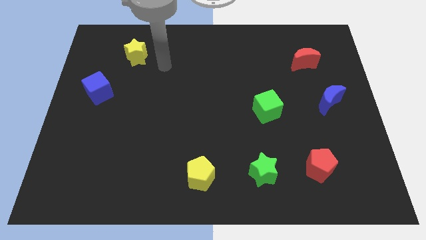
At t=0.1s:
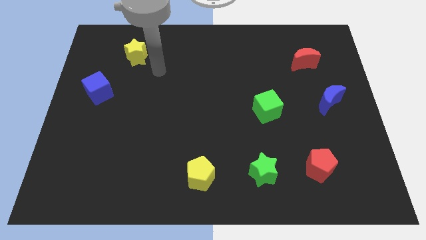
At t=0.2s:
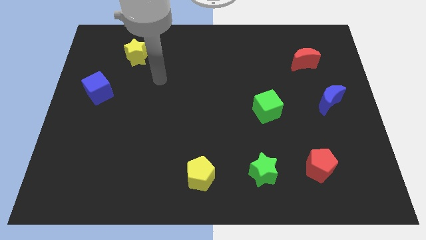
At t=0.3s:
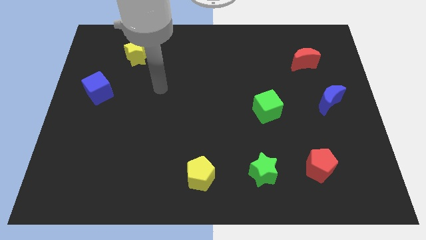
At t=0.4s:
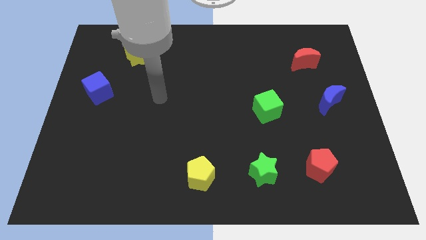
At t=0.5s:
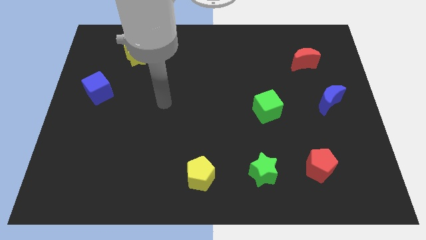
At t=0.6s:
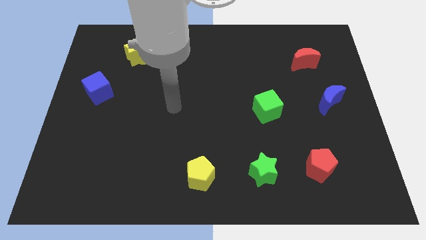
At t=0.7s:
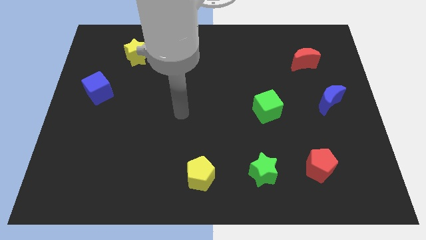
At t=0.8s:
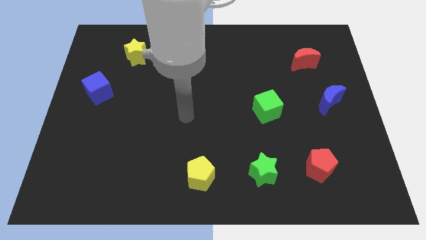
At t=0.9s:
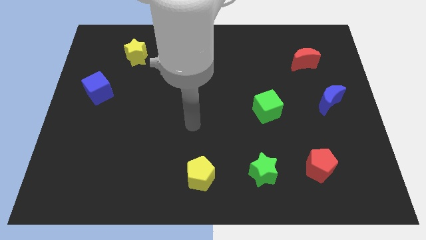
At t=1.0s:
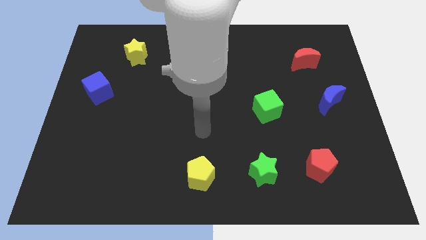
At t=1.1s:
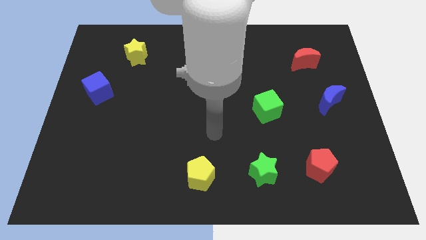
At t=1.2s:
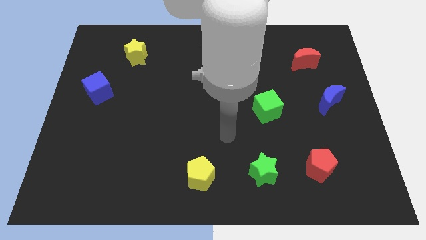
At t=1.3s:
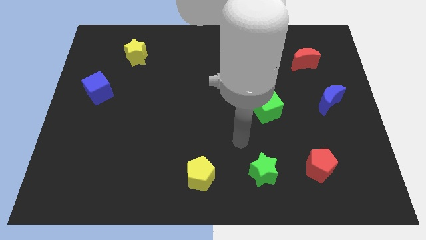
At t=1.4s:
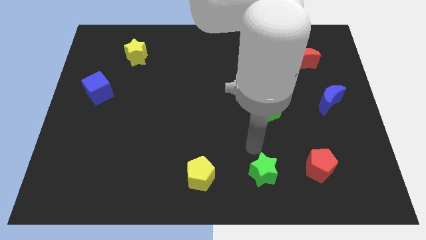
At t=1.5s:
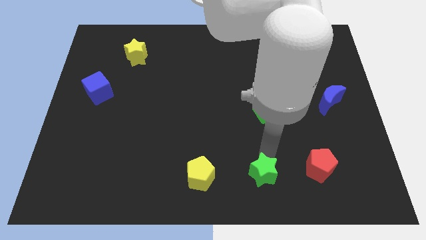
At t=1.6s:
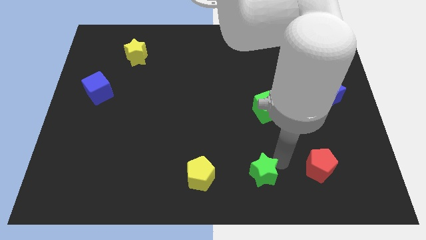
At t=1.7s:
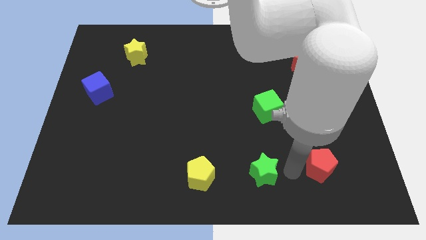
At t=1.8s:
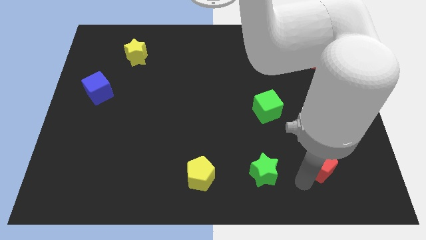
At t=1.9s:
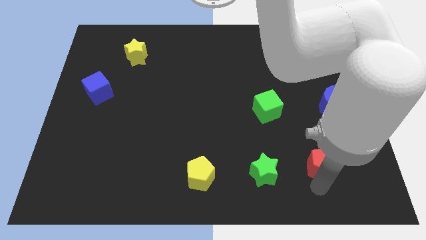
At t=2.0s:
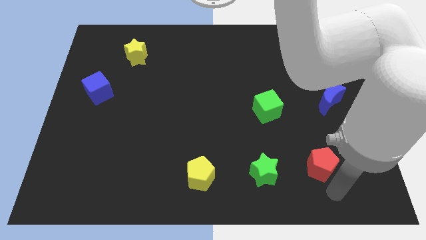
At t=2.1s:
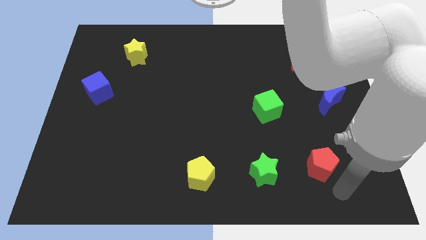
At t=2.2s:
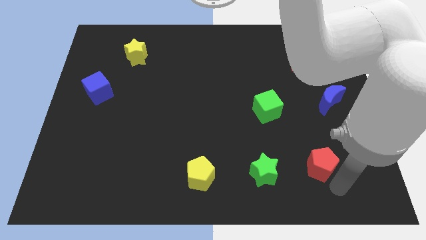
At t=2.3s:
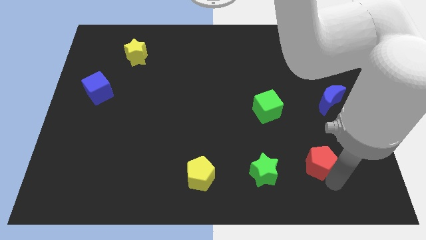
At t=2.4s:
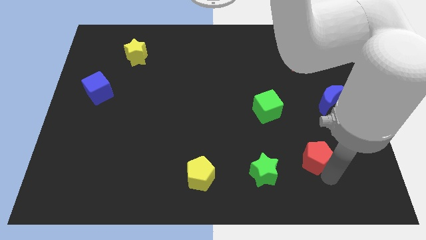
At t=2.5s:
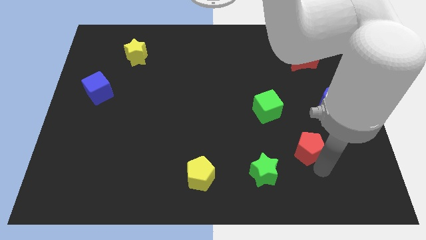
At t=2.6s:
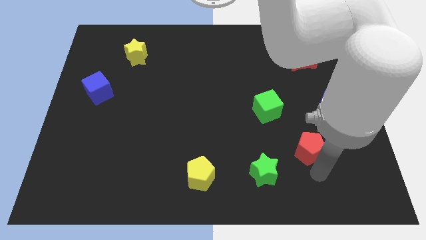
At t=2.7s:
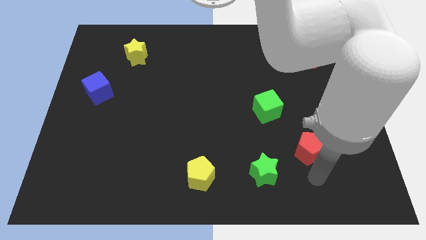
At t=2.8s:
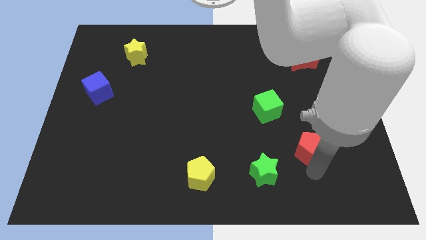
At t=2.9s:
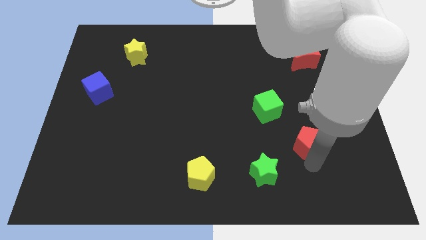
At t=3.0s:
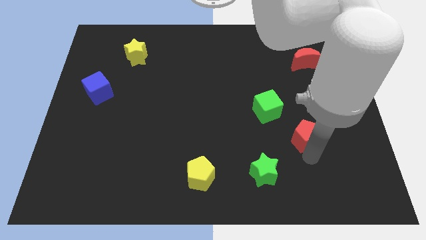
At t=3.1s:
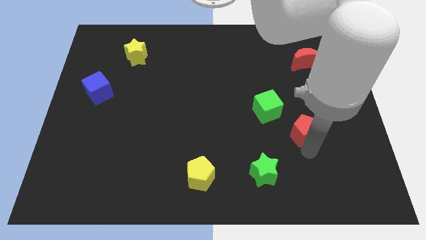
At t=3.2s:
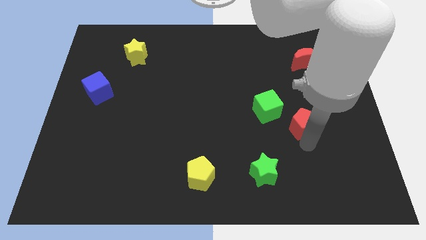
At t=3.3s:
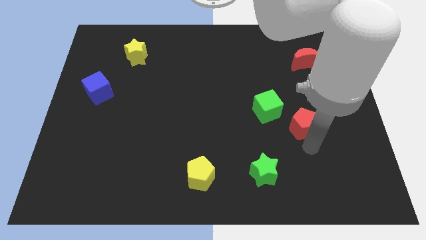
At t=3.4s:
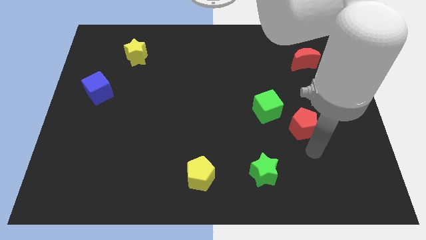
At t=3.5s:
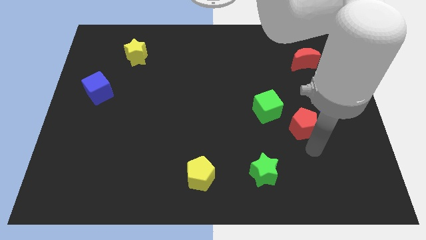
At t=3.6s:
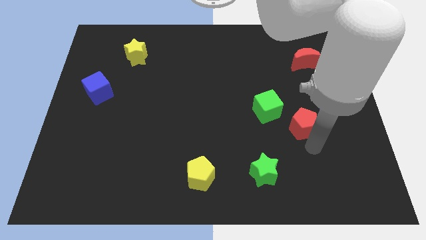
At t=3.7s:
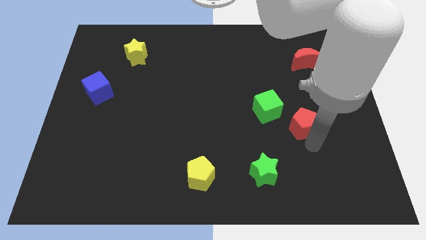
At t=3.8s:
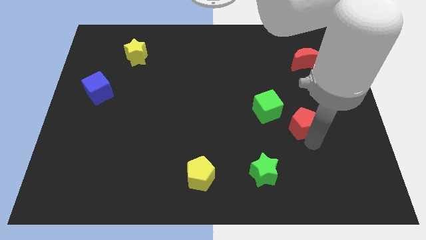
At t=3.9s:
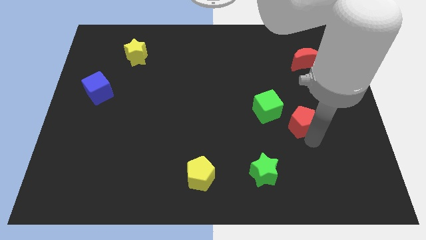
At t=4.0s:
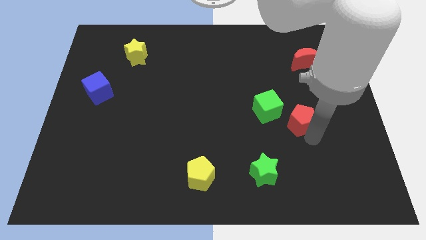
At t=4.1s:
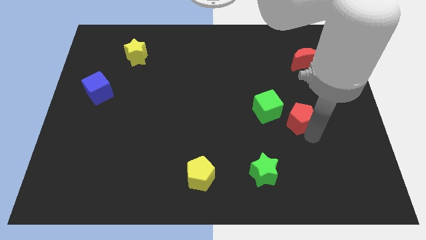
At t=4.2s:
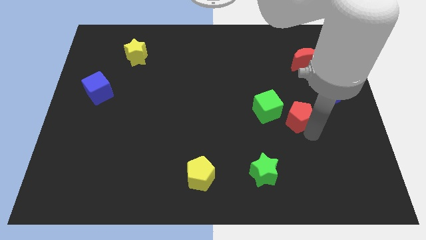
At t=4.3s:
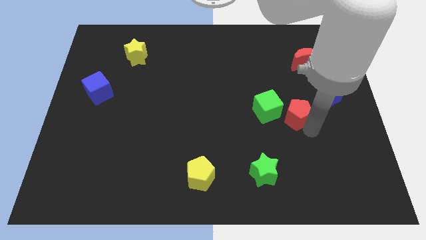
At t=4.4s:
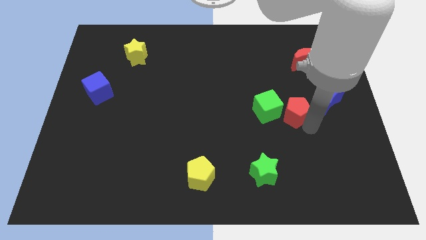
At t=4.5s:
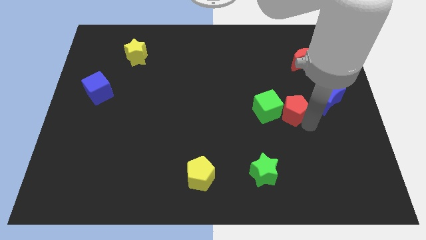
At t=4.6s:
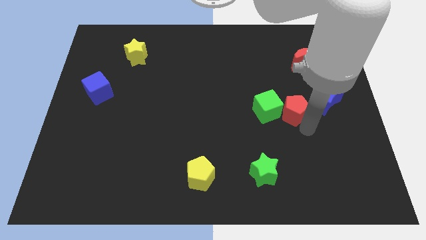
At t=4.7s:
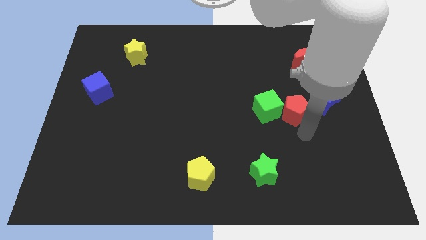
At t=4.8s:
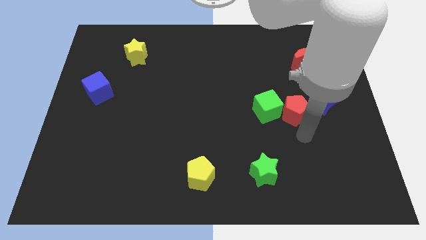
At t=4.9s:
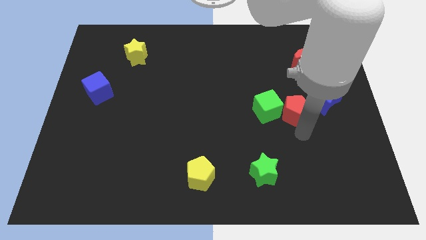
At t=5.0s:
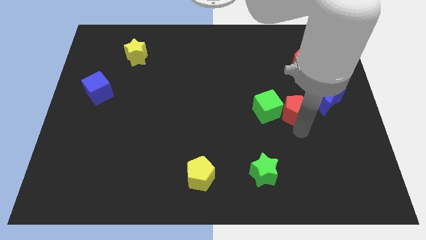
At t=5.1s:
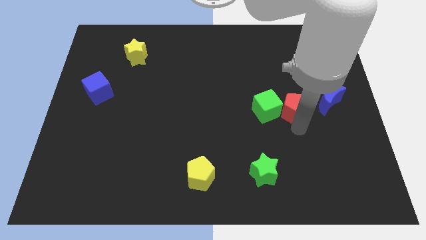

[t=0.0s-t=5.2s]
put the red pentagon diagonally up and to the right of the green cube

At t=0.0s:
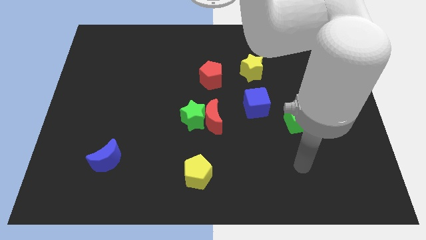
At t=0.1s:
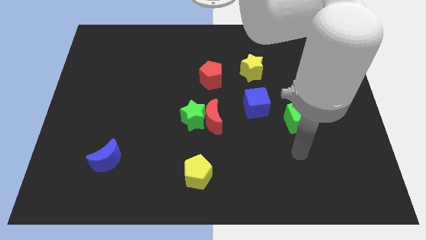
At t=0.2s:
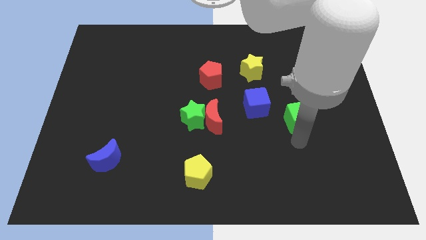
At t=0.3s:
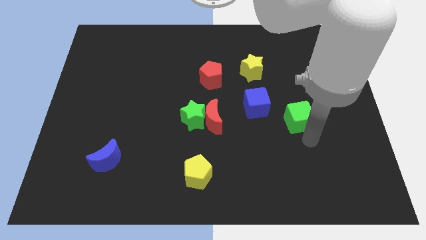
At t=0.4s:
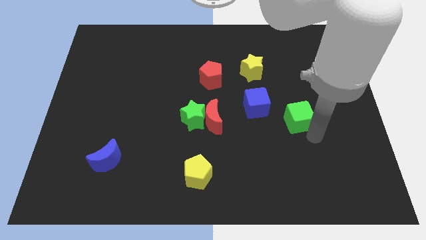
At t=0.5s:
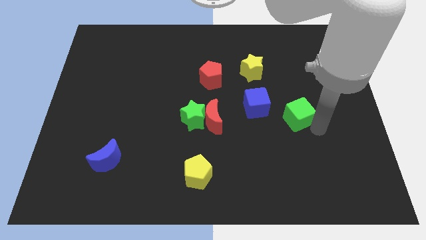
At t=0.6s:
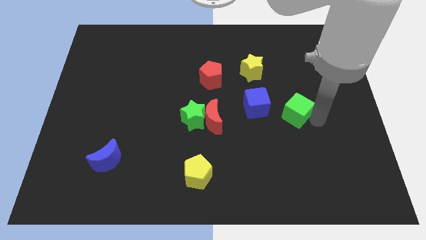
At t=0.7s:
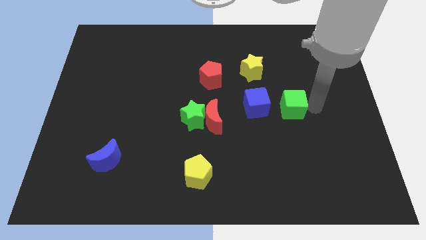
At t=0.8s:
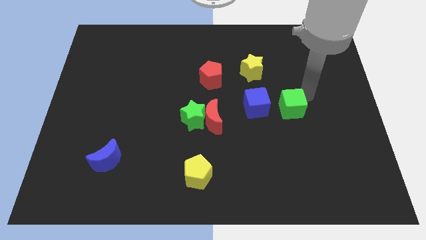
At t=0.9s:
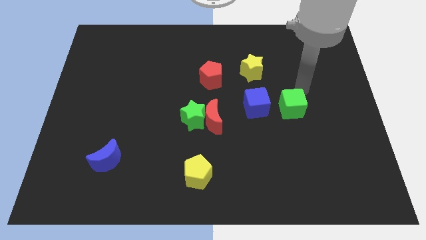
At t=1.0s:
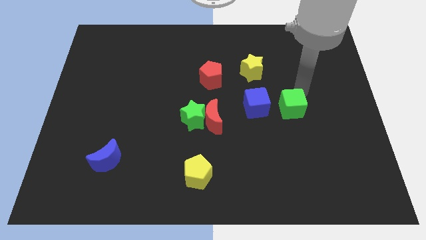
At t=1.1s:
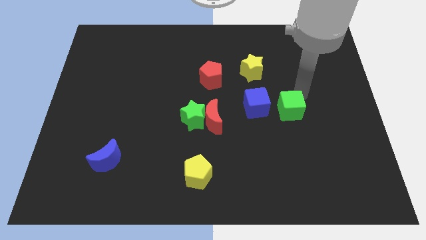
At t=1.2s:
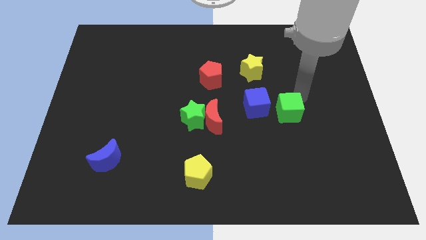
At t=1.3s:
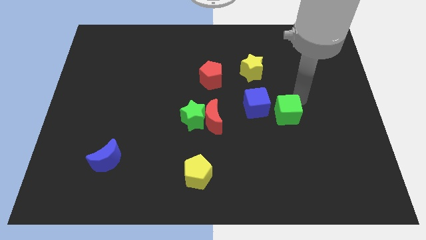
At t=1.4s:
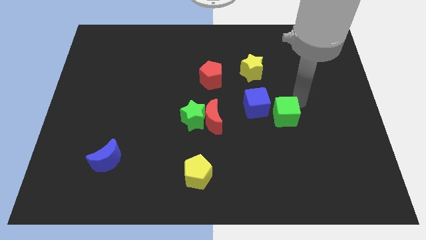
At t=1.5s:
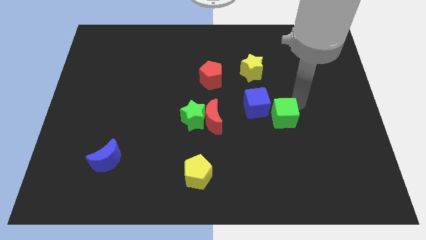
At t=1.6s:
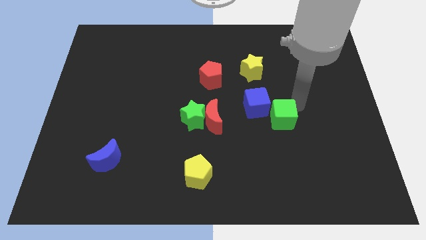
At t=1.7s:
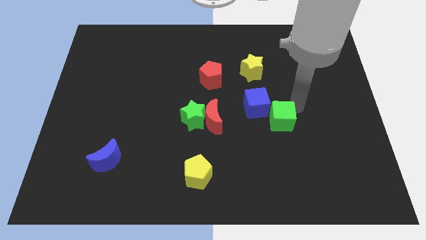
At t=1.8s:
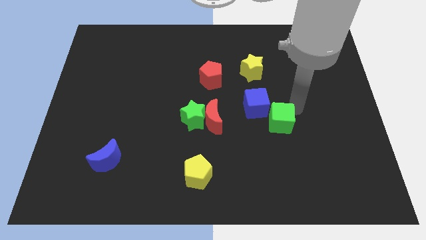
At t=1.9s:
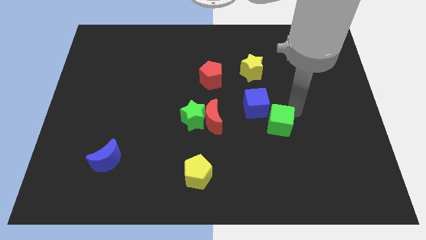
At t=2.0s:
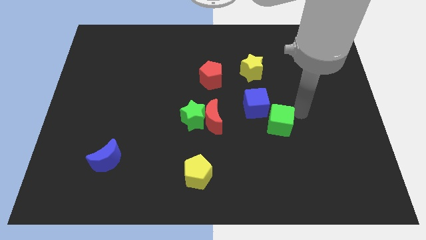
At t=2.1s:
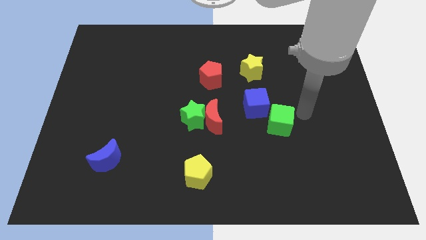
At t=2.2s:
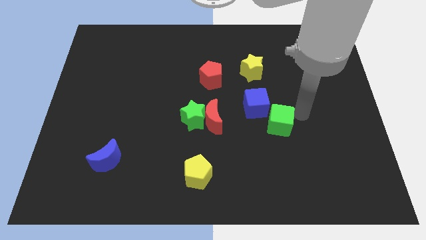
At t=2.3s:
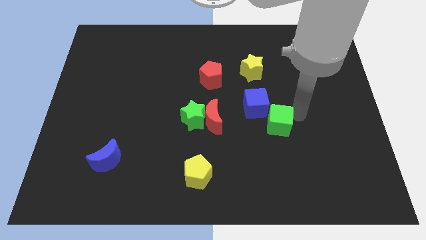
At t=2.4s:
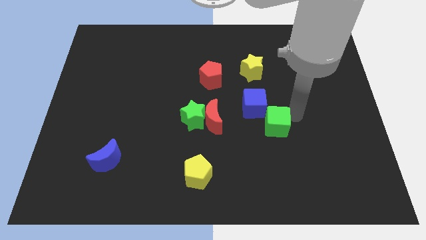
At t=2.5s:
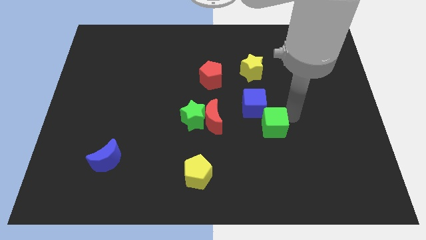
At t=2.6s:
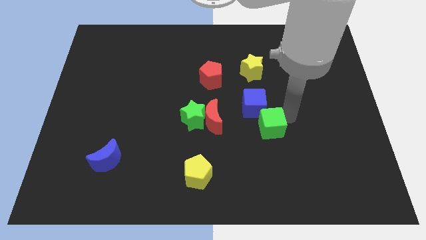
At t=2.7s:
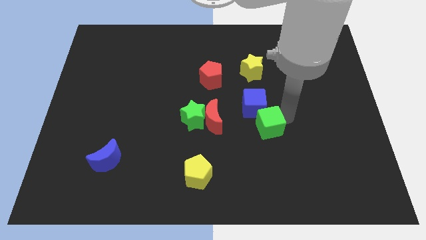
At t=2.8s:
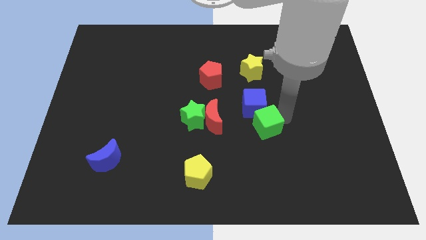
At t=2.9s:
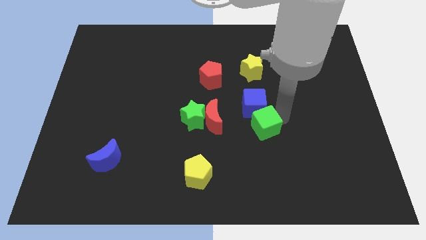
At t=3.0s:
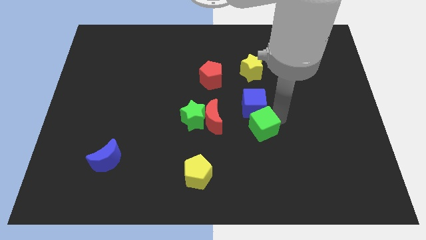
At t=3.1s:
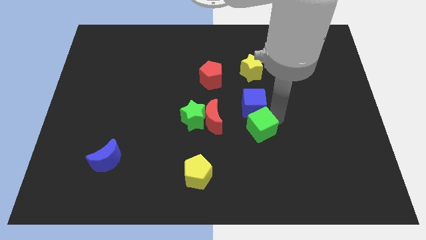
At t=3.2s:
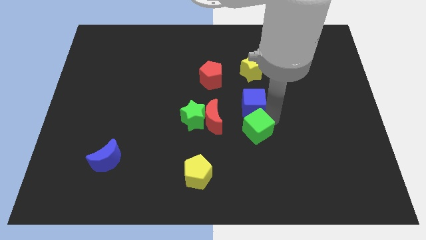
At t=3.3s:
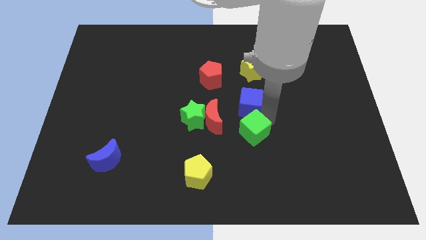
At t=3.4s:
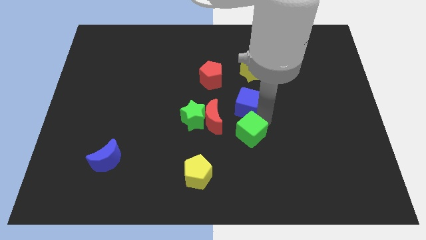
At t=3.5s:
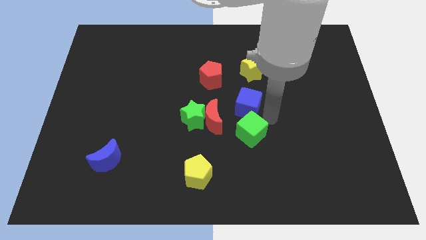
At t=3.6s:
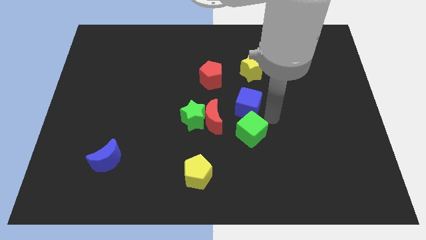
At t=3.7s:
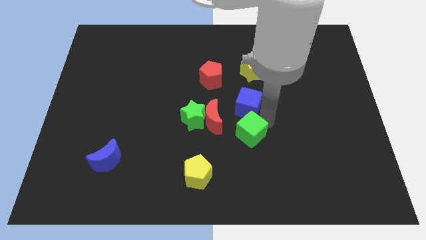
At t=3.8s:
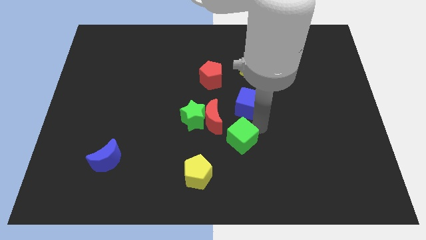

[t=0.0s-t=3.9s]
push the green cube to the top right side of the yellow pentagon
